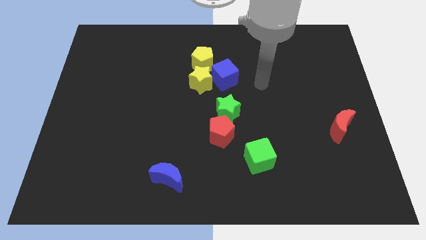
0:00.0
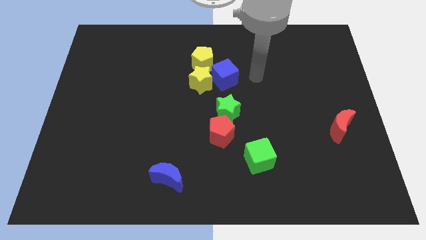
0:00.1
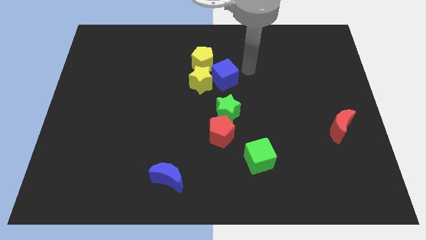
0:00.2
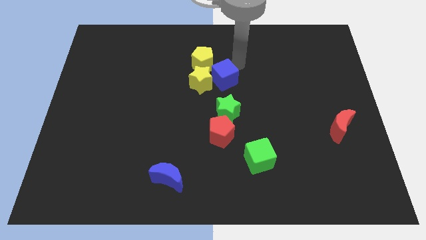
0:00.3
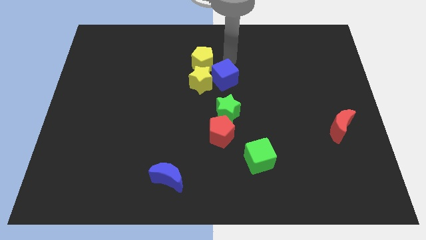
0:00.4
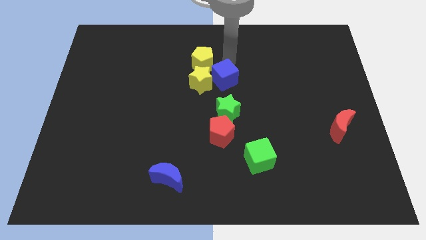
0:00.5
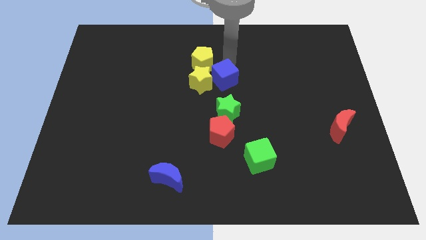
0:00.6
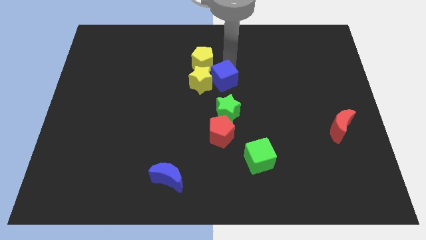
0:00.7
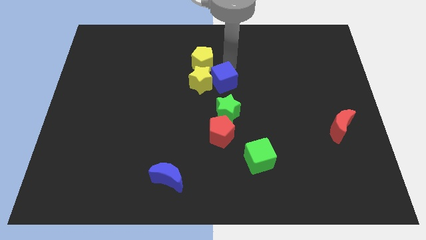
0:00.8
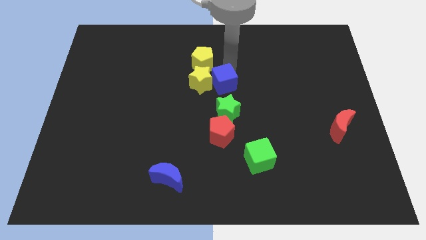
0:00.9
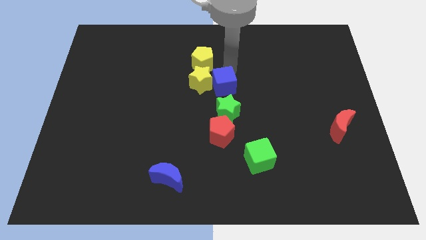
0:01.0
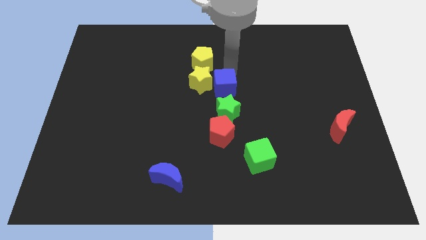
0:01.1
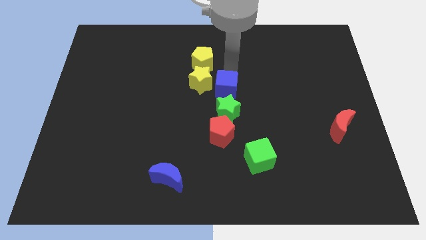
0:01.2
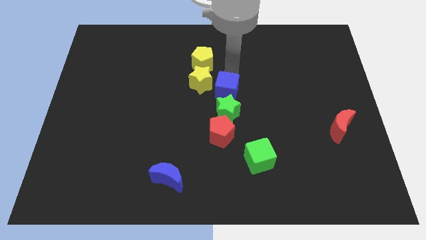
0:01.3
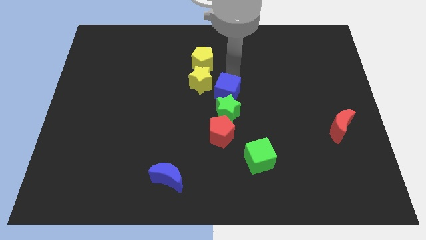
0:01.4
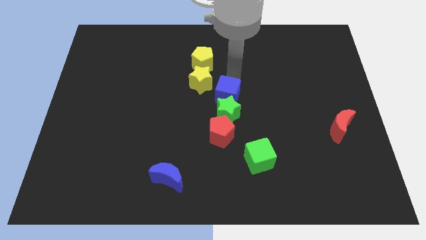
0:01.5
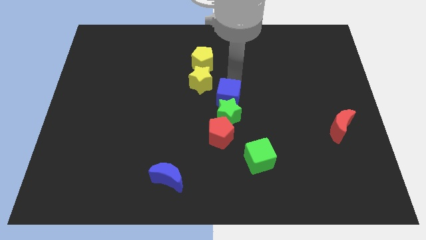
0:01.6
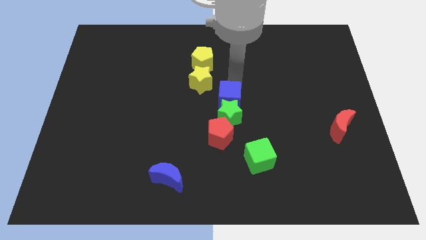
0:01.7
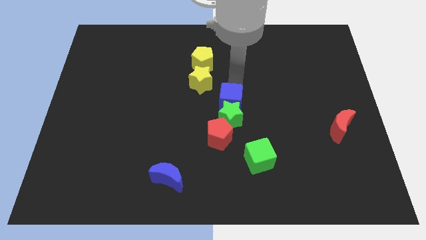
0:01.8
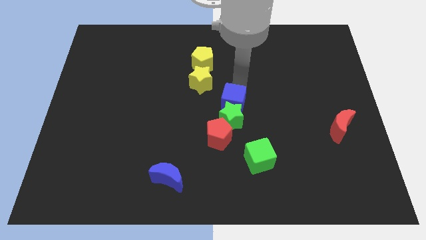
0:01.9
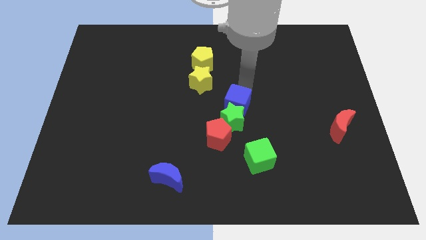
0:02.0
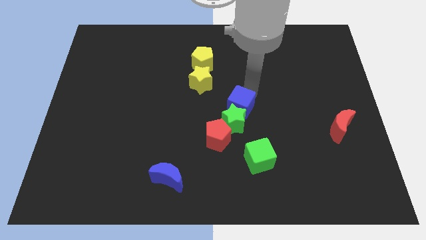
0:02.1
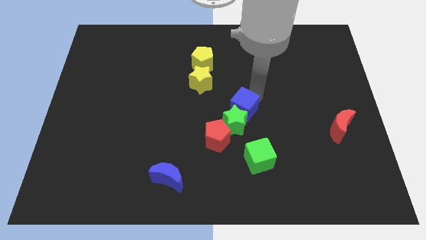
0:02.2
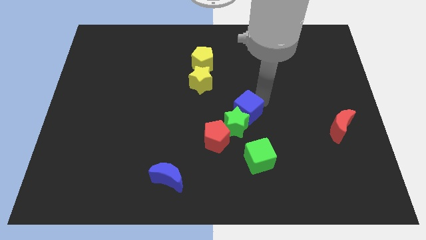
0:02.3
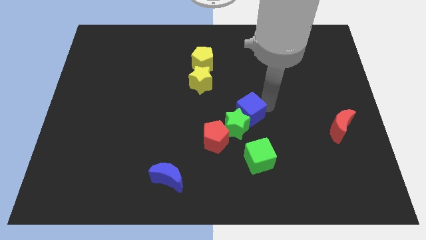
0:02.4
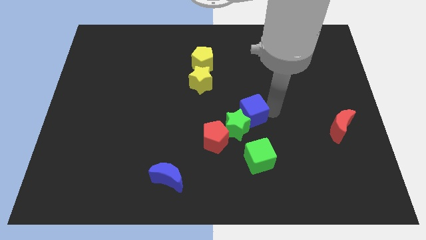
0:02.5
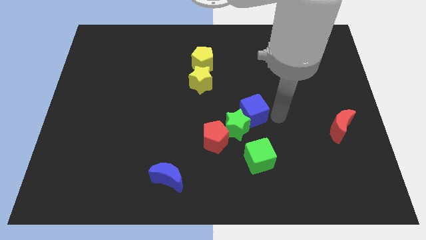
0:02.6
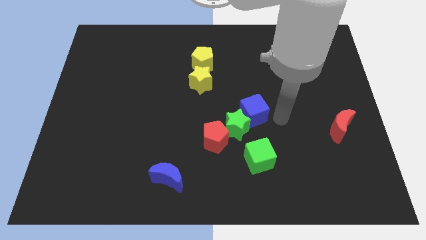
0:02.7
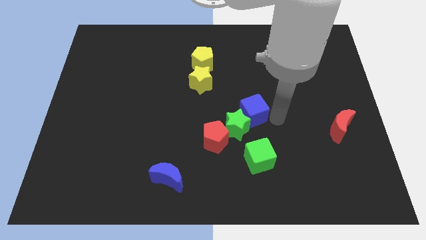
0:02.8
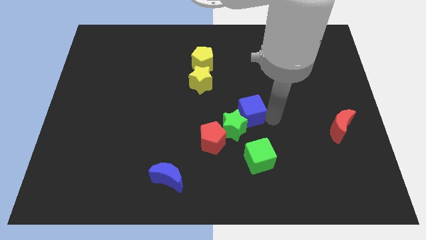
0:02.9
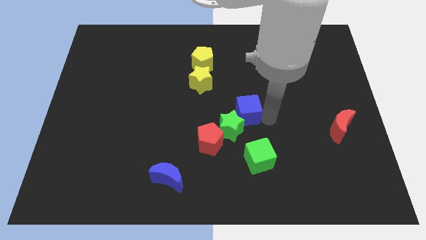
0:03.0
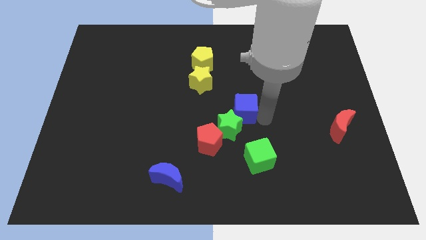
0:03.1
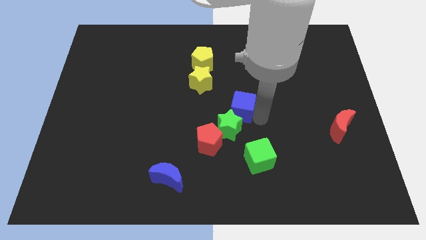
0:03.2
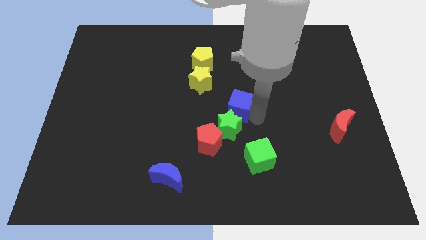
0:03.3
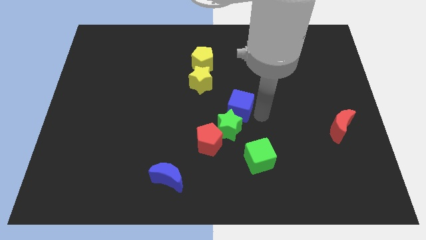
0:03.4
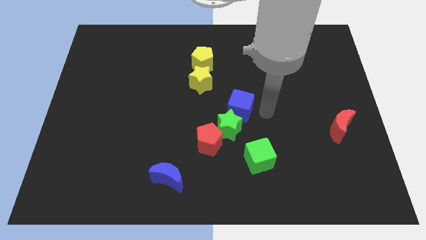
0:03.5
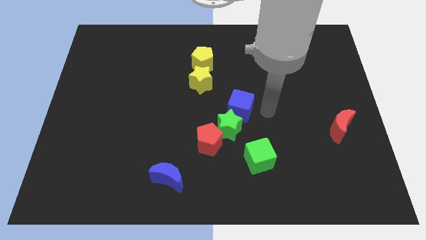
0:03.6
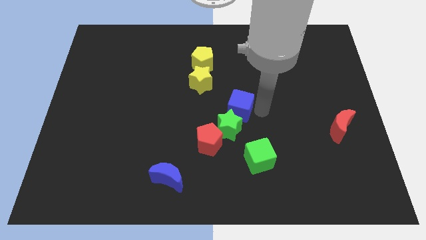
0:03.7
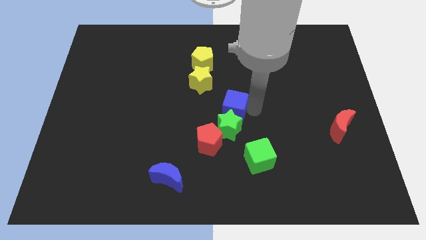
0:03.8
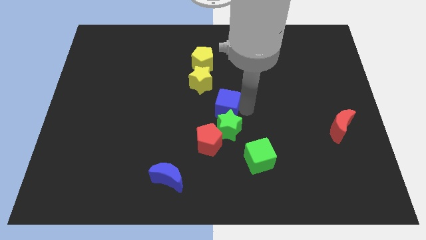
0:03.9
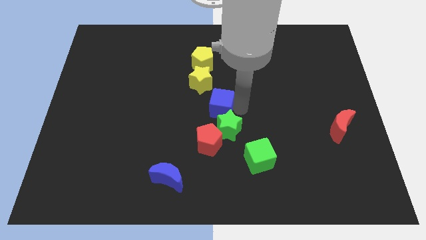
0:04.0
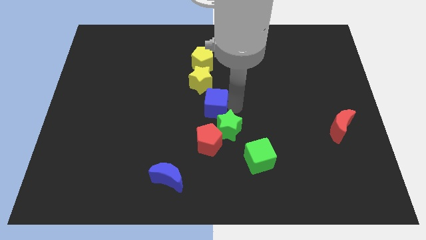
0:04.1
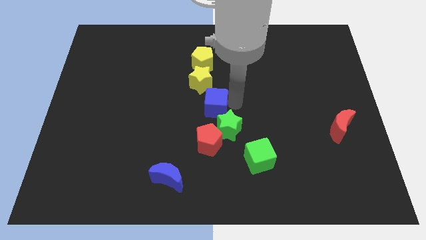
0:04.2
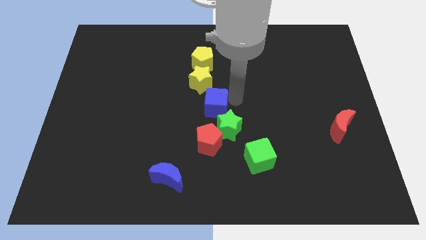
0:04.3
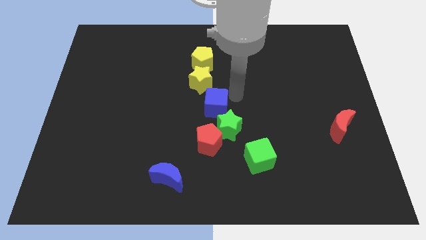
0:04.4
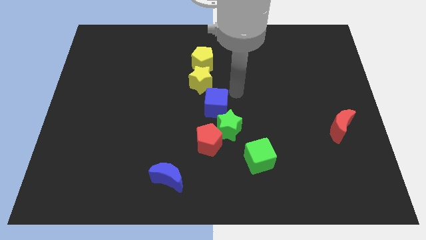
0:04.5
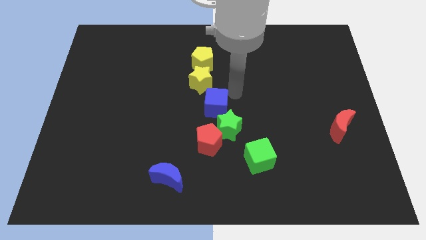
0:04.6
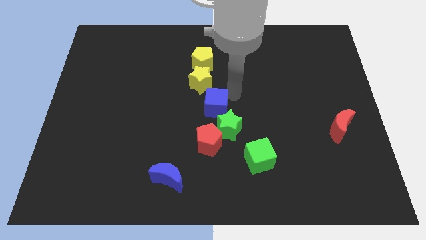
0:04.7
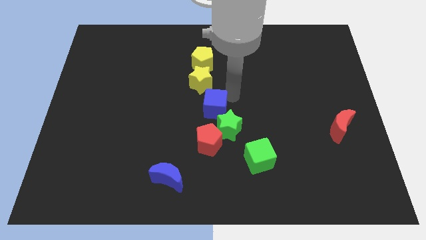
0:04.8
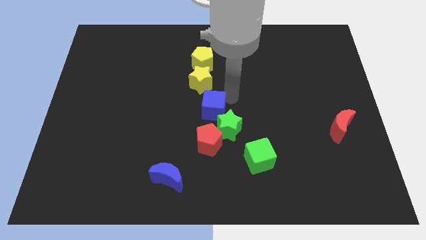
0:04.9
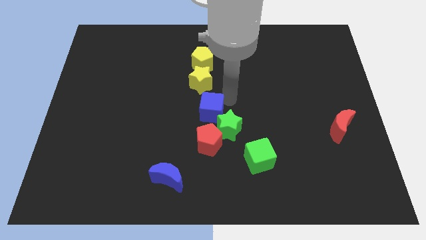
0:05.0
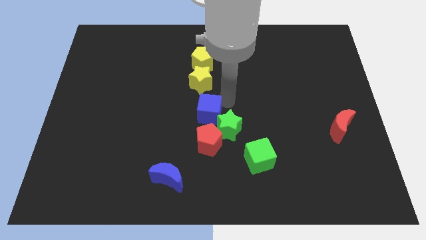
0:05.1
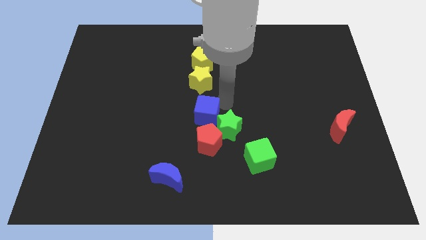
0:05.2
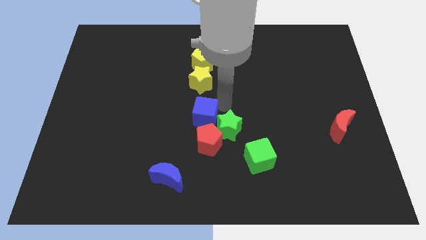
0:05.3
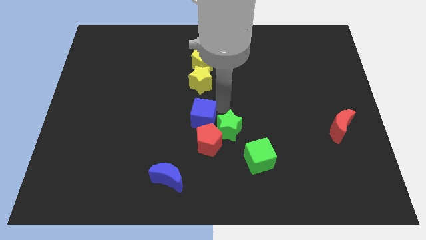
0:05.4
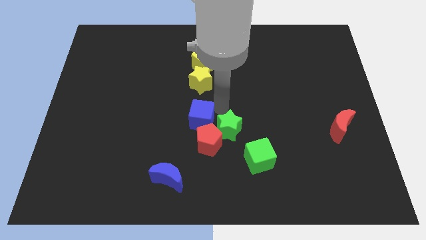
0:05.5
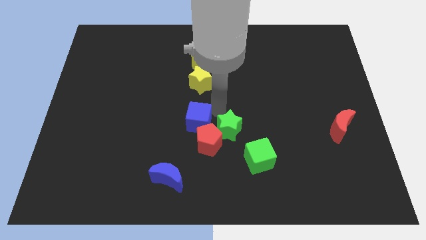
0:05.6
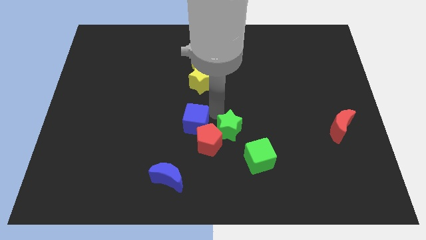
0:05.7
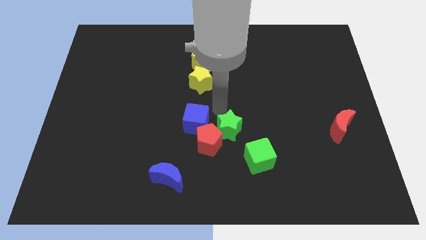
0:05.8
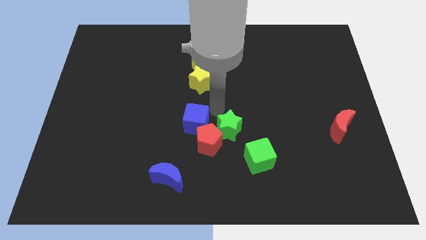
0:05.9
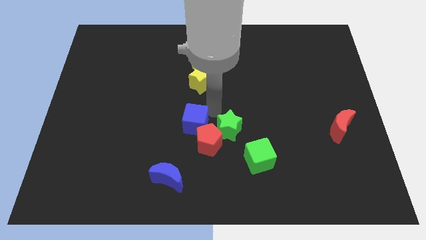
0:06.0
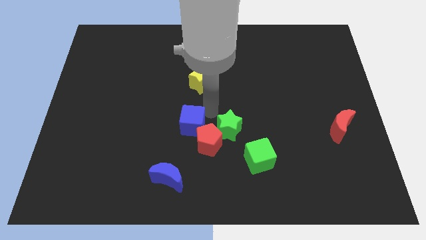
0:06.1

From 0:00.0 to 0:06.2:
push the blue cube above the blue moon
